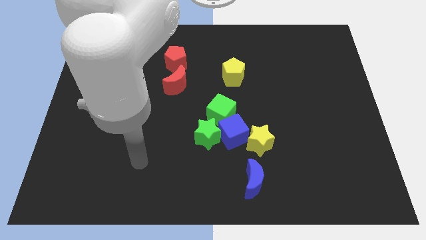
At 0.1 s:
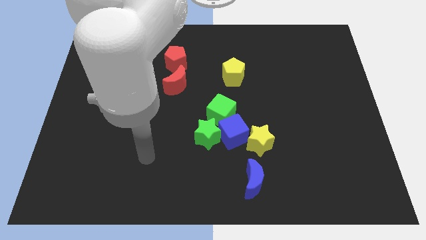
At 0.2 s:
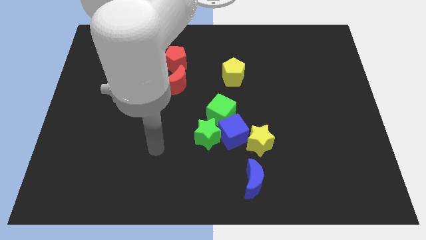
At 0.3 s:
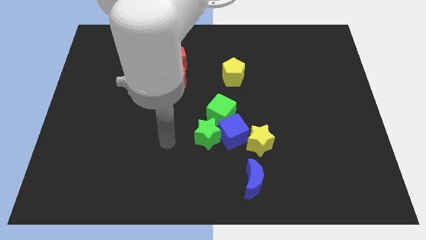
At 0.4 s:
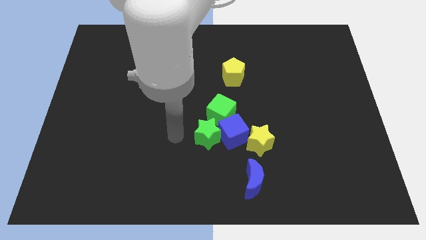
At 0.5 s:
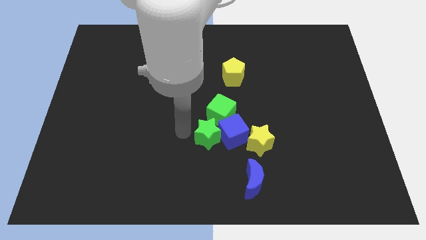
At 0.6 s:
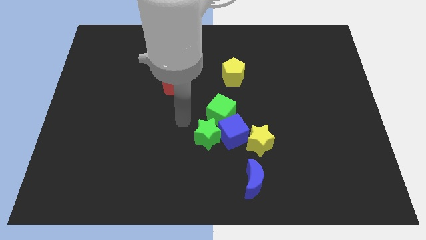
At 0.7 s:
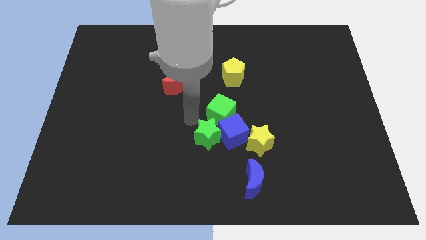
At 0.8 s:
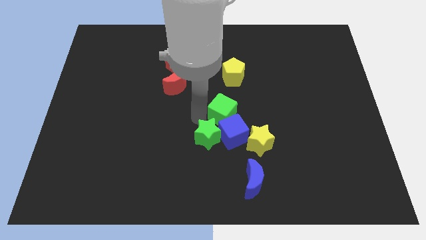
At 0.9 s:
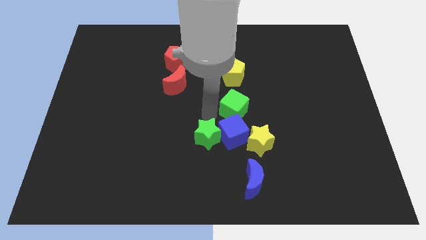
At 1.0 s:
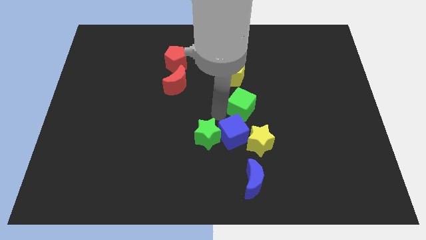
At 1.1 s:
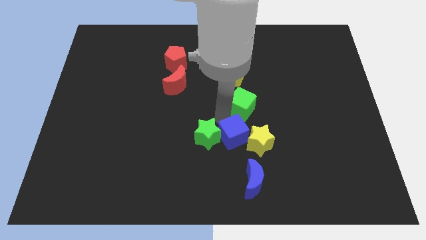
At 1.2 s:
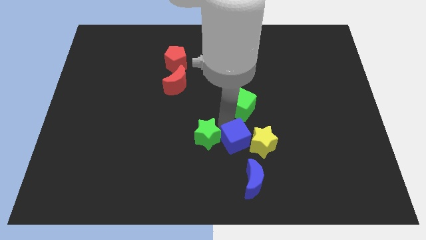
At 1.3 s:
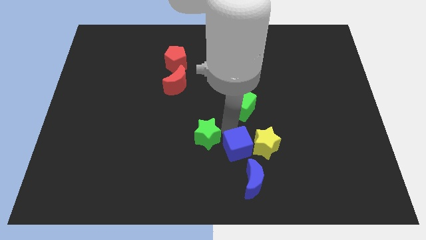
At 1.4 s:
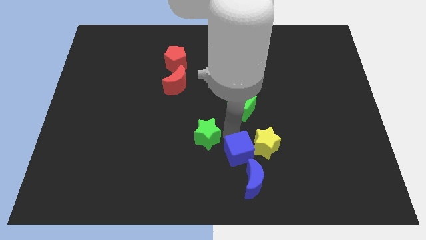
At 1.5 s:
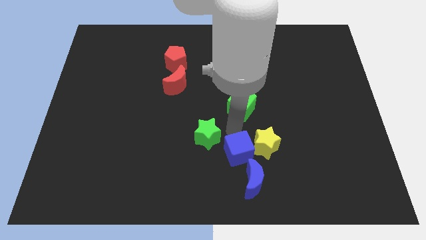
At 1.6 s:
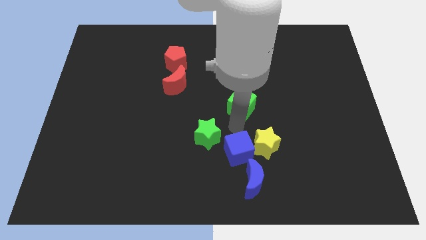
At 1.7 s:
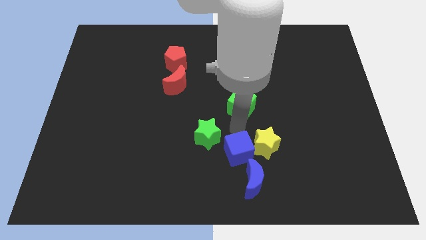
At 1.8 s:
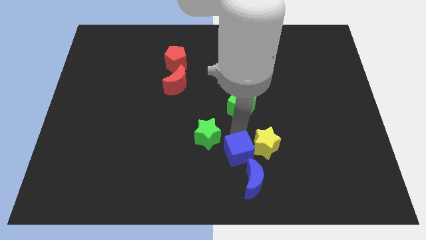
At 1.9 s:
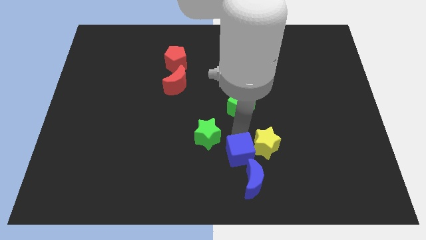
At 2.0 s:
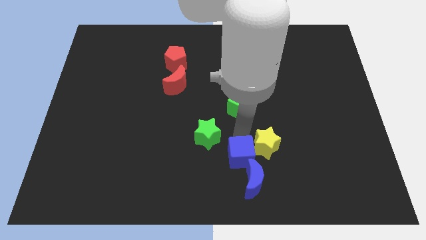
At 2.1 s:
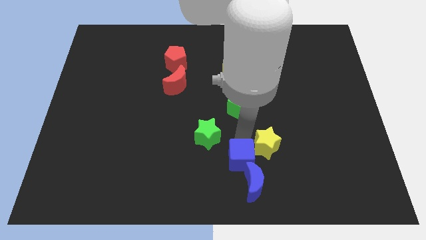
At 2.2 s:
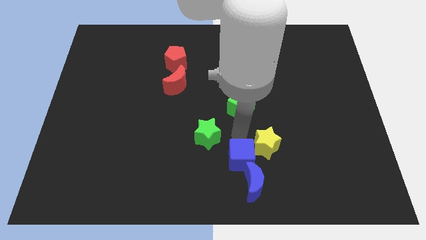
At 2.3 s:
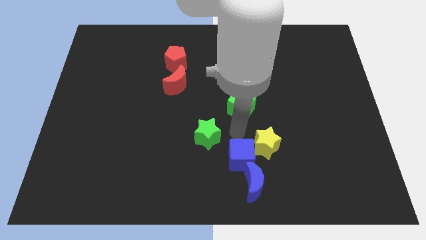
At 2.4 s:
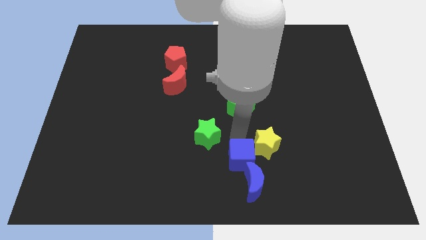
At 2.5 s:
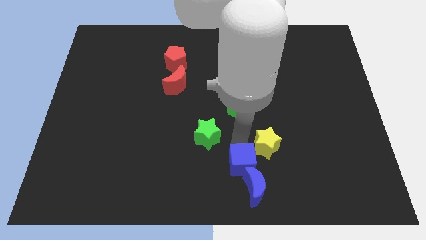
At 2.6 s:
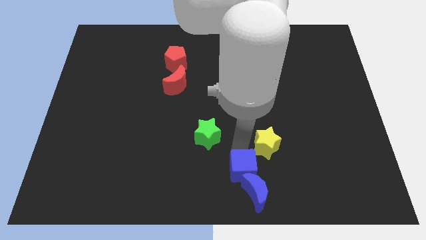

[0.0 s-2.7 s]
separate the blue cube from the green star, yellow star, and green cube

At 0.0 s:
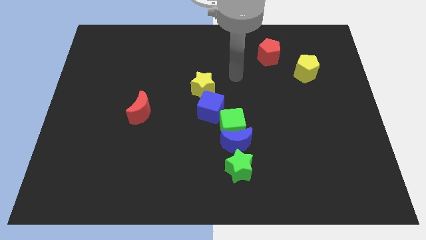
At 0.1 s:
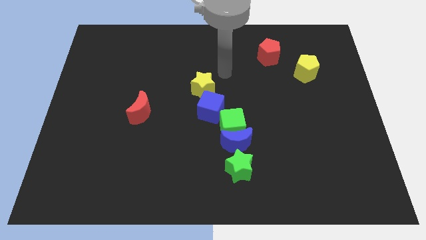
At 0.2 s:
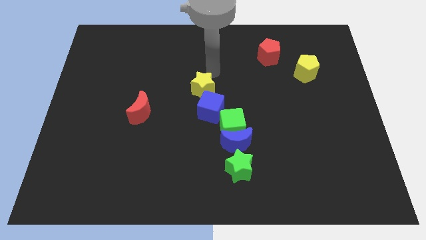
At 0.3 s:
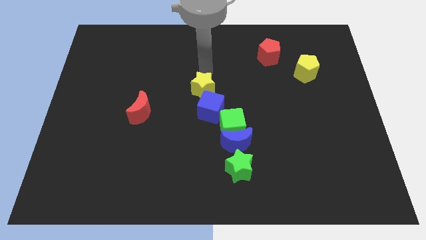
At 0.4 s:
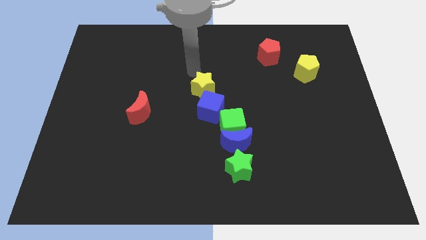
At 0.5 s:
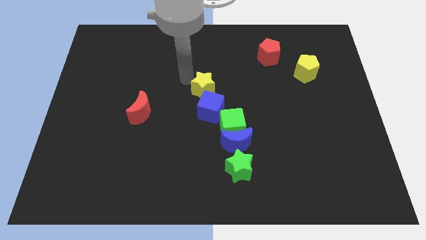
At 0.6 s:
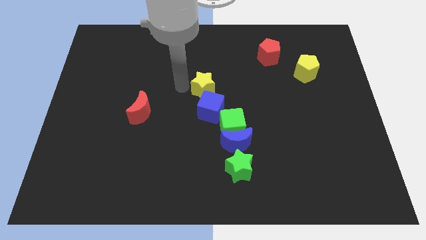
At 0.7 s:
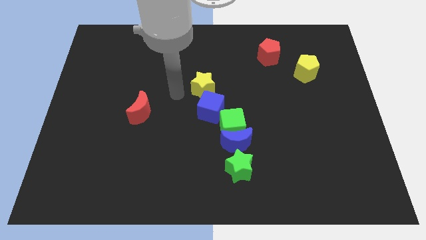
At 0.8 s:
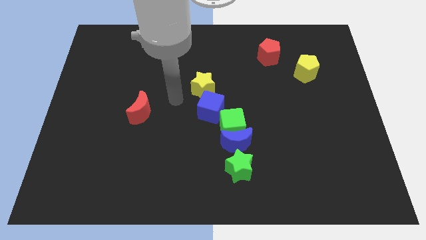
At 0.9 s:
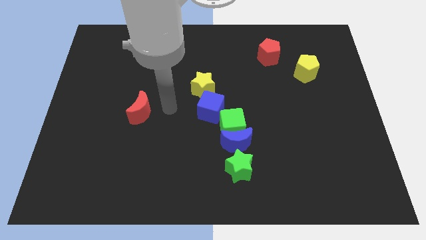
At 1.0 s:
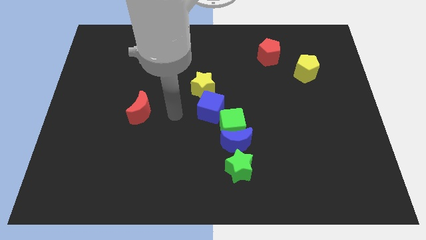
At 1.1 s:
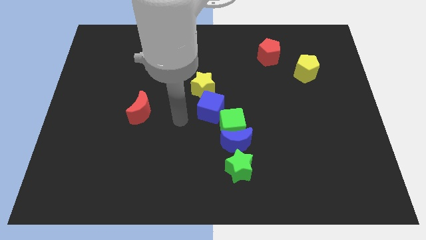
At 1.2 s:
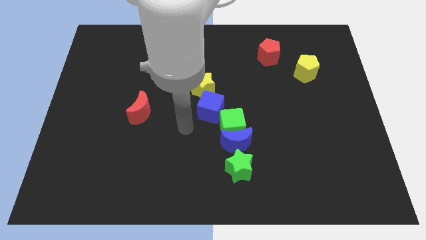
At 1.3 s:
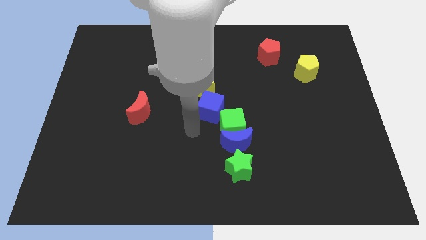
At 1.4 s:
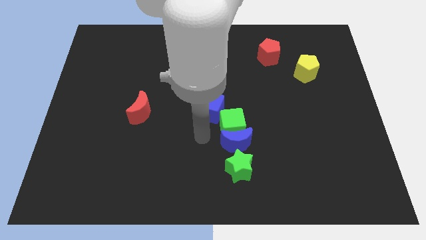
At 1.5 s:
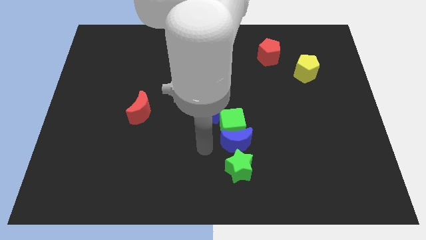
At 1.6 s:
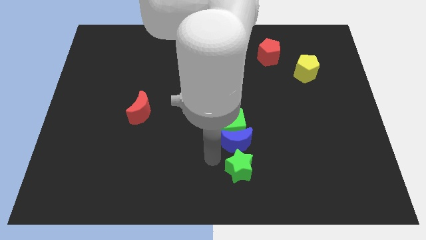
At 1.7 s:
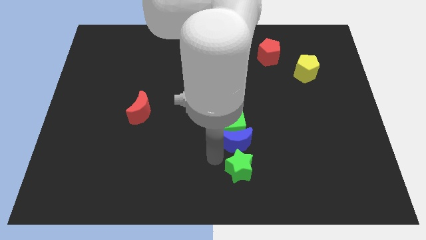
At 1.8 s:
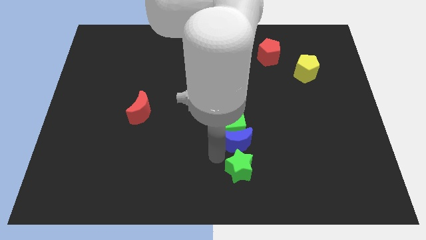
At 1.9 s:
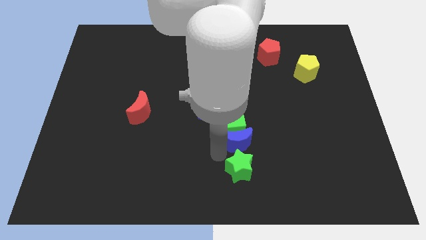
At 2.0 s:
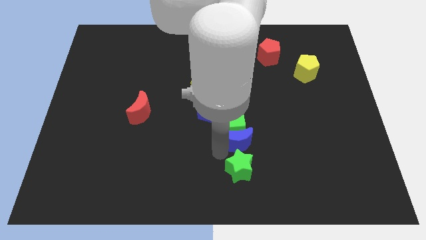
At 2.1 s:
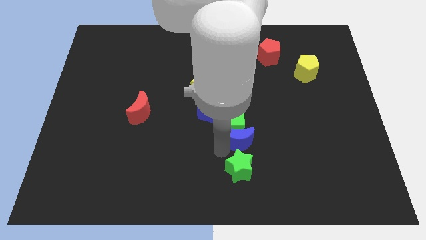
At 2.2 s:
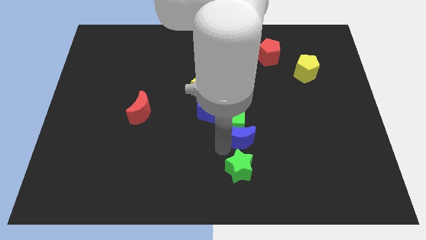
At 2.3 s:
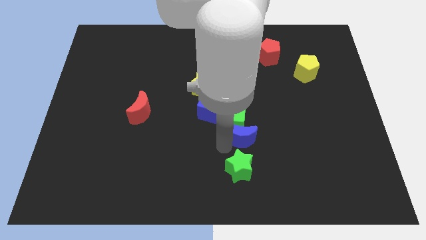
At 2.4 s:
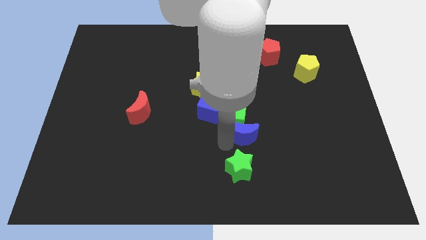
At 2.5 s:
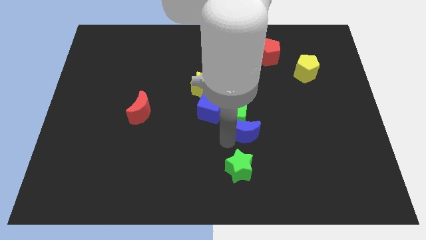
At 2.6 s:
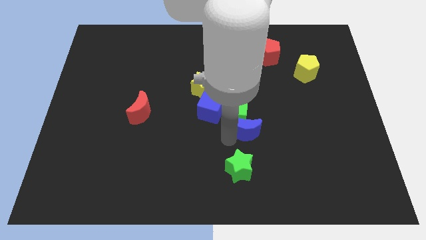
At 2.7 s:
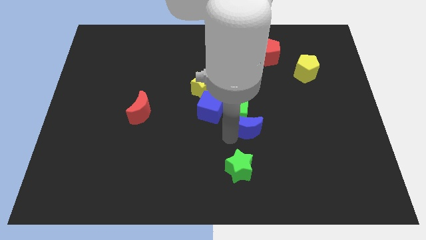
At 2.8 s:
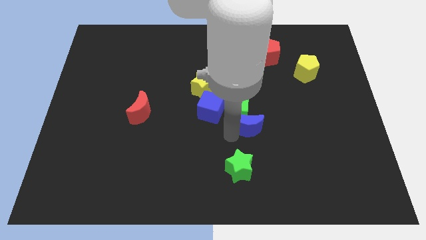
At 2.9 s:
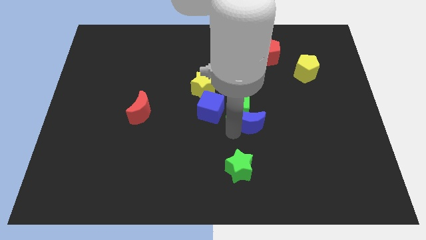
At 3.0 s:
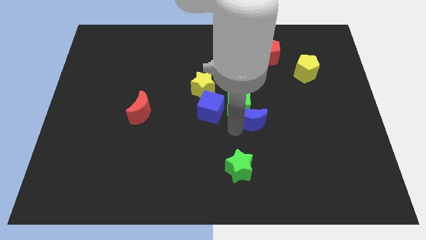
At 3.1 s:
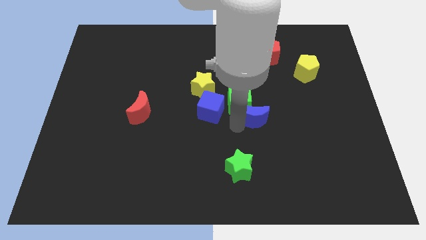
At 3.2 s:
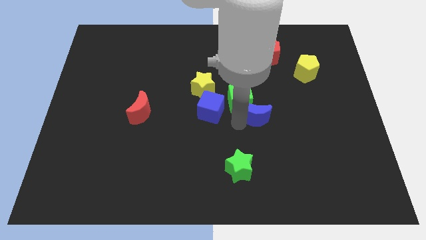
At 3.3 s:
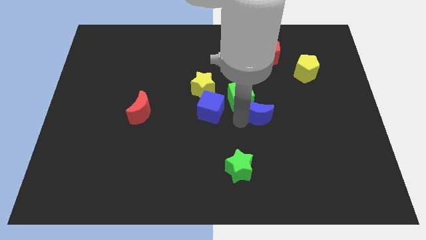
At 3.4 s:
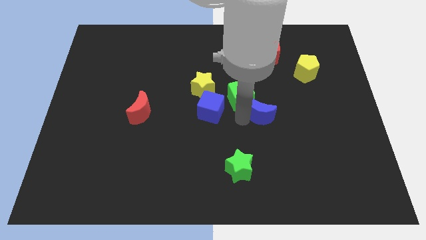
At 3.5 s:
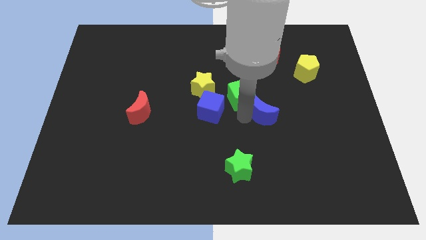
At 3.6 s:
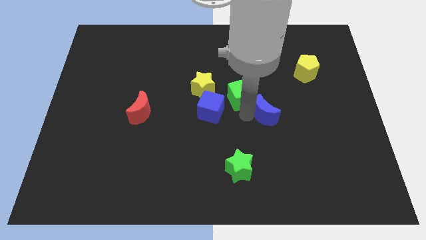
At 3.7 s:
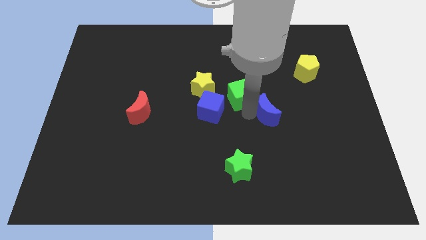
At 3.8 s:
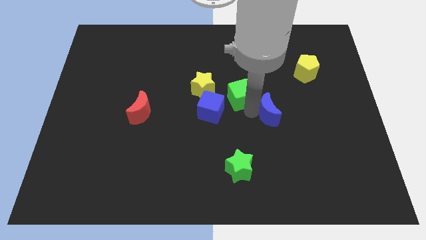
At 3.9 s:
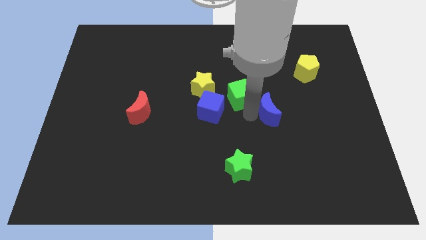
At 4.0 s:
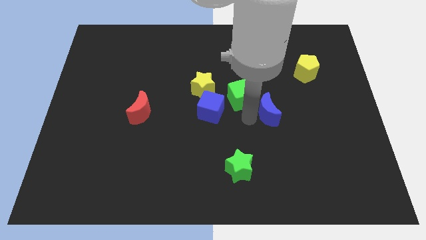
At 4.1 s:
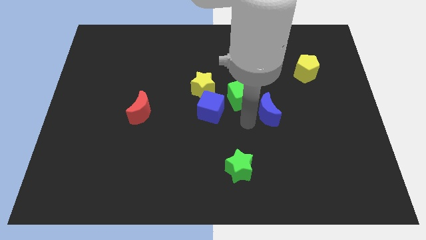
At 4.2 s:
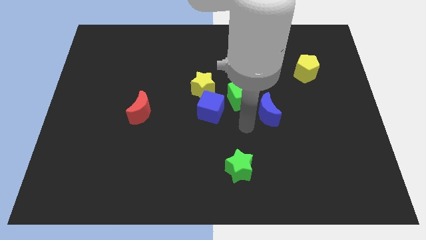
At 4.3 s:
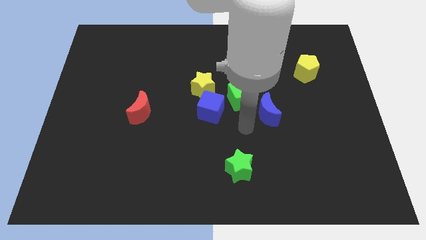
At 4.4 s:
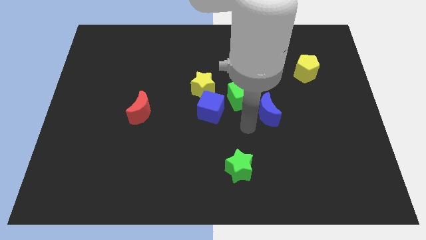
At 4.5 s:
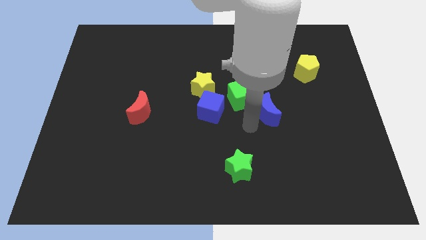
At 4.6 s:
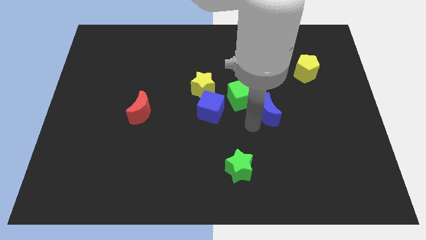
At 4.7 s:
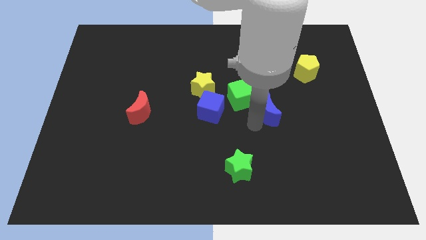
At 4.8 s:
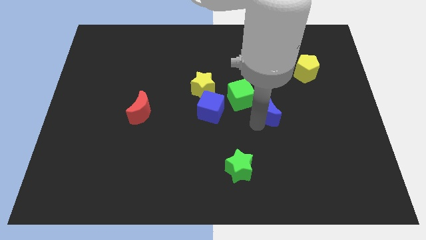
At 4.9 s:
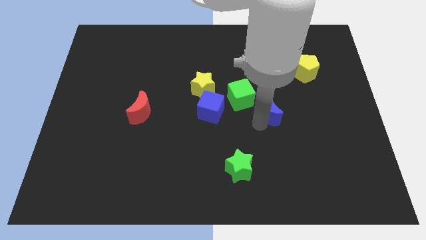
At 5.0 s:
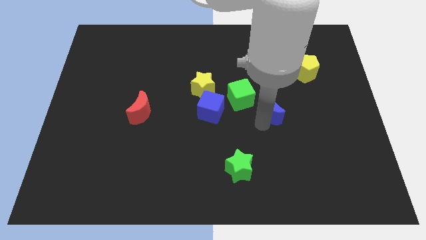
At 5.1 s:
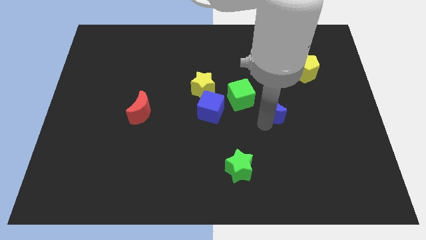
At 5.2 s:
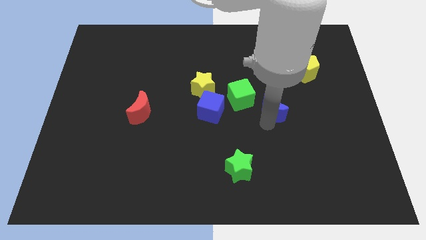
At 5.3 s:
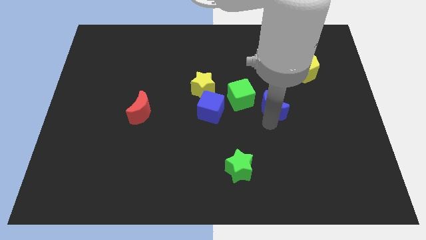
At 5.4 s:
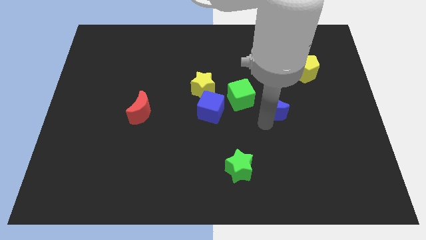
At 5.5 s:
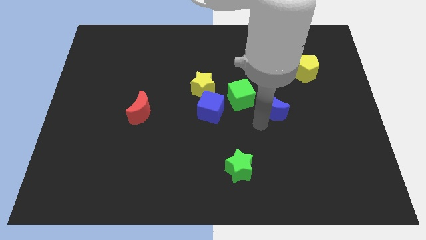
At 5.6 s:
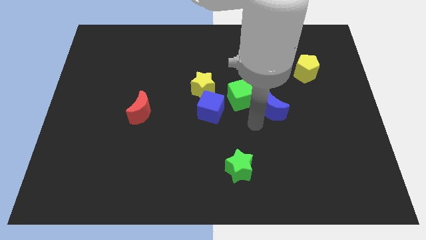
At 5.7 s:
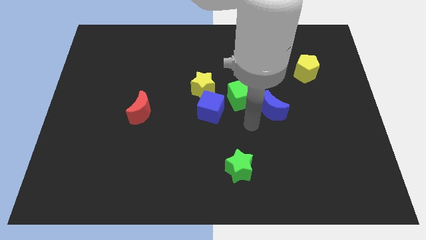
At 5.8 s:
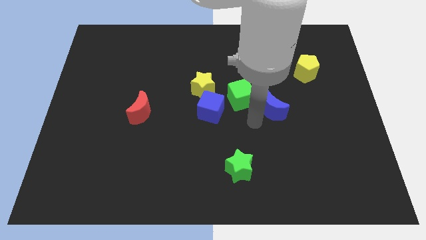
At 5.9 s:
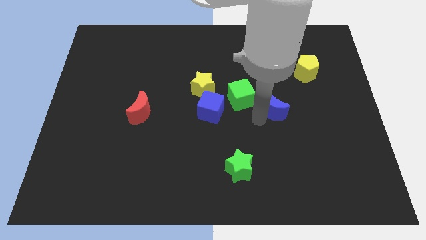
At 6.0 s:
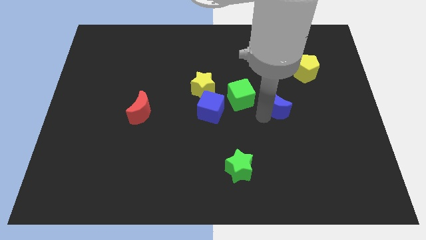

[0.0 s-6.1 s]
separate the blue moon from the green cube and green star

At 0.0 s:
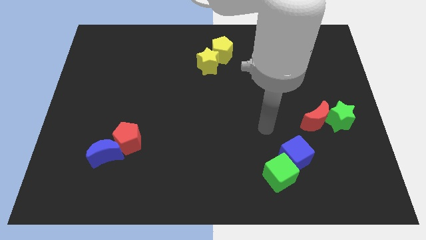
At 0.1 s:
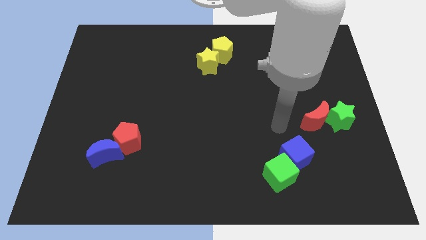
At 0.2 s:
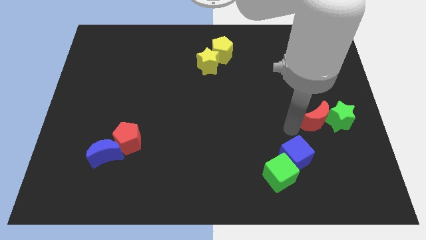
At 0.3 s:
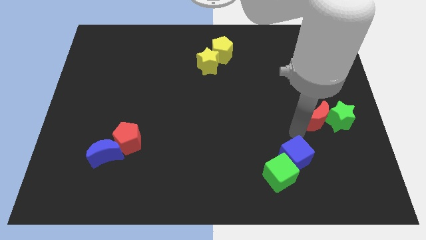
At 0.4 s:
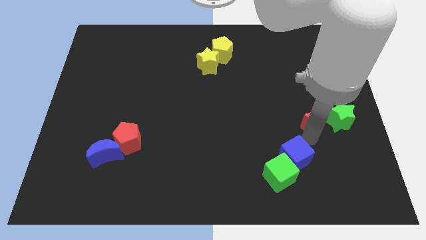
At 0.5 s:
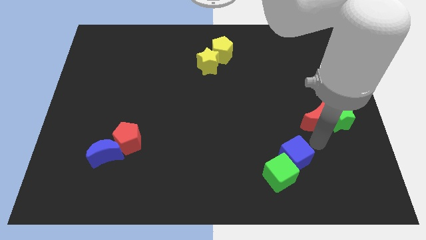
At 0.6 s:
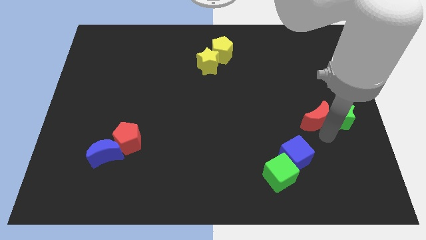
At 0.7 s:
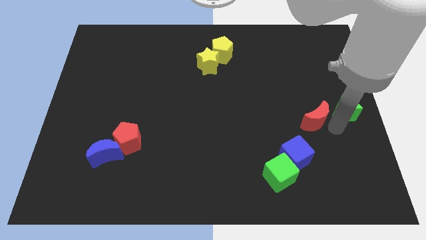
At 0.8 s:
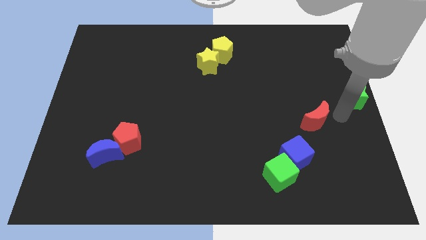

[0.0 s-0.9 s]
separate the red moon from the green star
